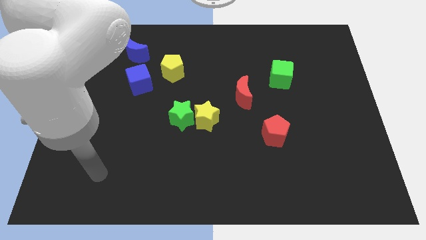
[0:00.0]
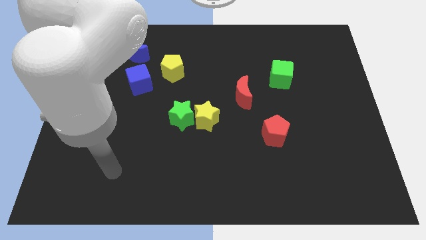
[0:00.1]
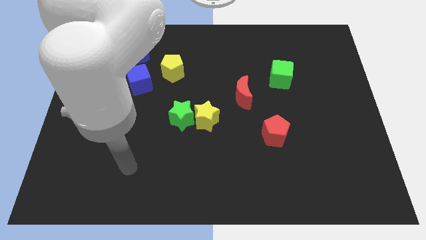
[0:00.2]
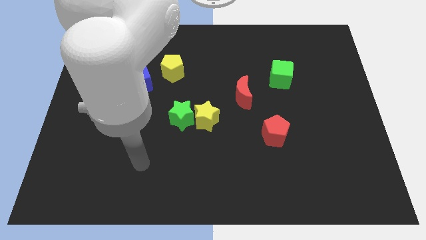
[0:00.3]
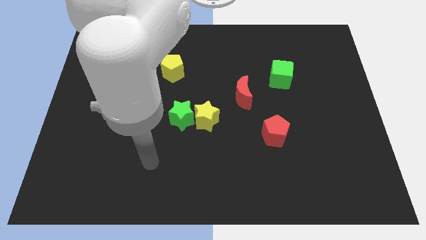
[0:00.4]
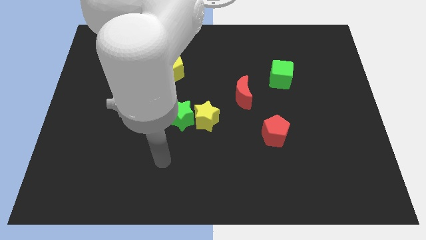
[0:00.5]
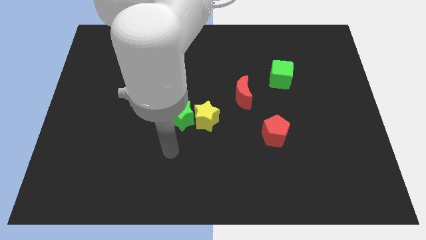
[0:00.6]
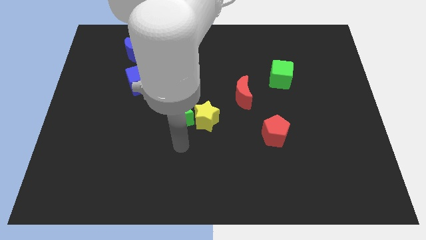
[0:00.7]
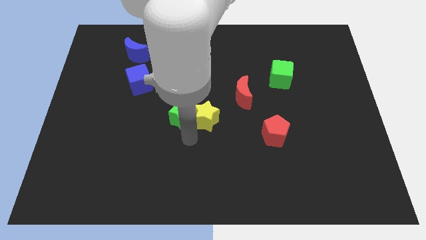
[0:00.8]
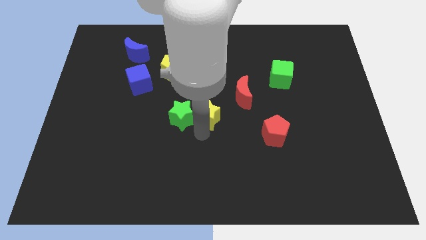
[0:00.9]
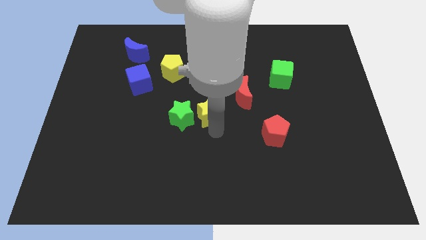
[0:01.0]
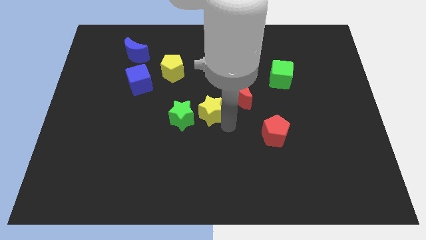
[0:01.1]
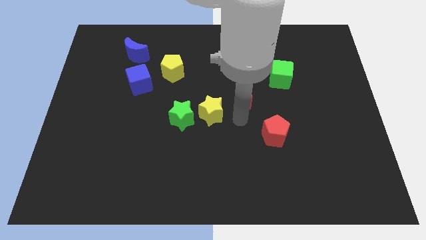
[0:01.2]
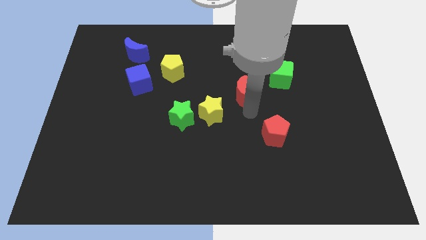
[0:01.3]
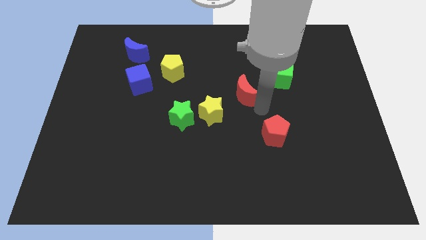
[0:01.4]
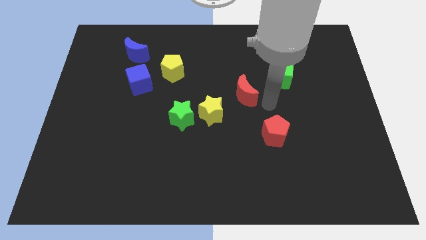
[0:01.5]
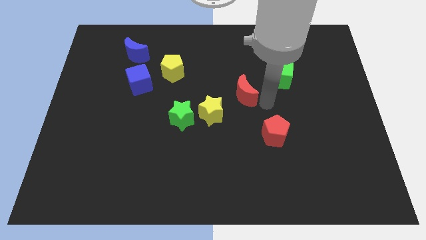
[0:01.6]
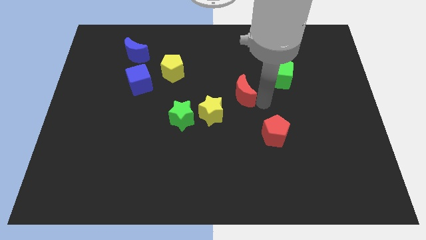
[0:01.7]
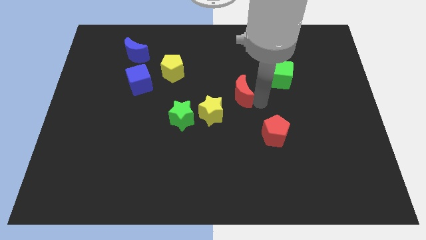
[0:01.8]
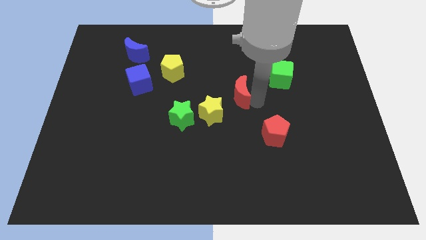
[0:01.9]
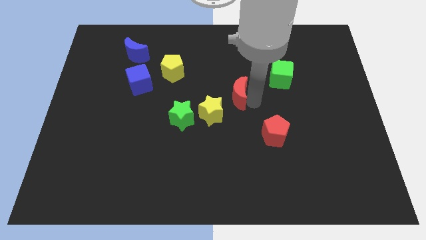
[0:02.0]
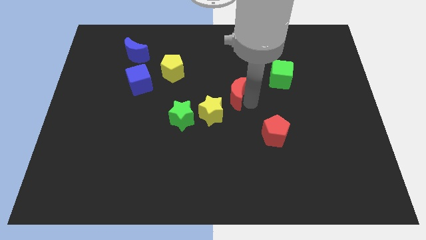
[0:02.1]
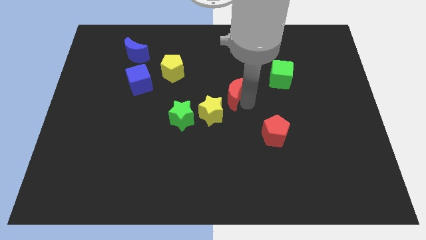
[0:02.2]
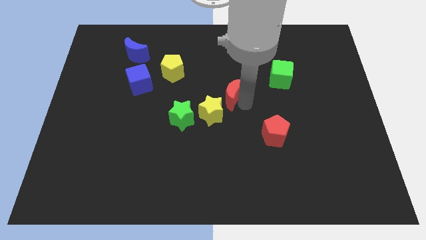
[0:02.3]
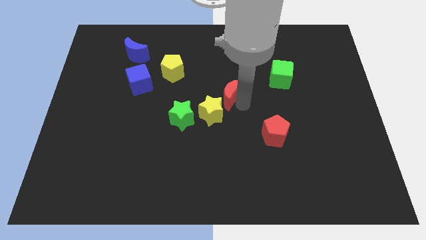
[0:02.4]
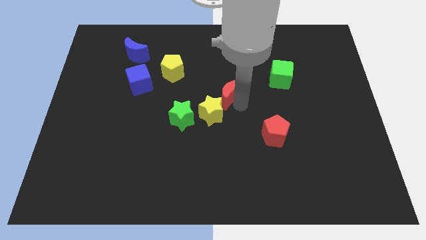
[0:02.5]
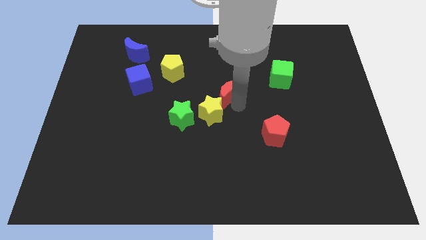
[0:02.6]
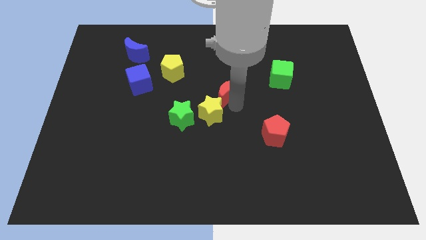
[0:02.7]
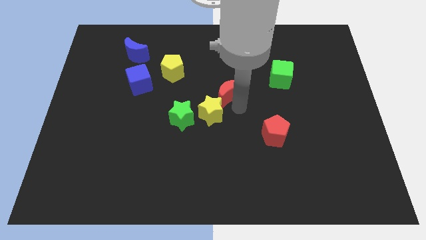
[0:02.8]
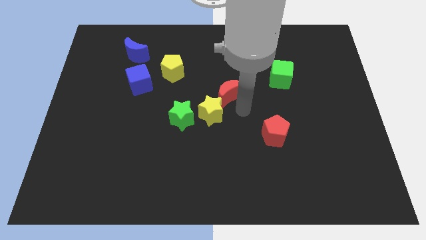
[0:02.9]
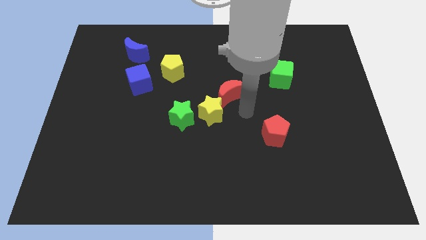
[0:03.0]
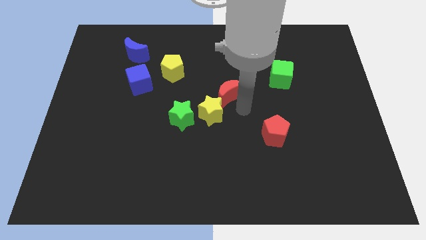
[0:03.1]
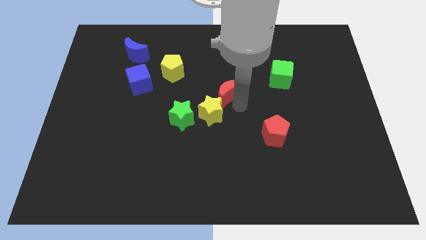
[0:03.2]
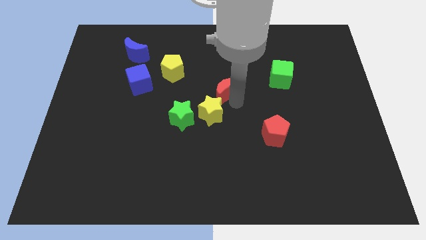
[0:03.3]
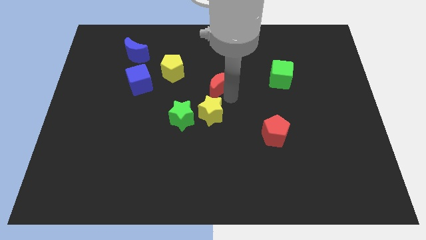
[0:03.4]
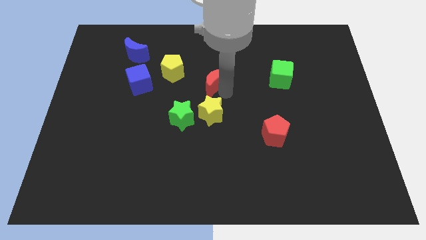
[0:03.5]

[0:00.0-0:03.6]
move the red moon a little bit up and left diagonally

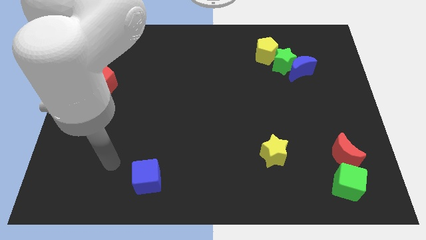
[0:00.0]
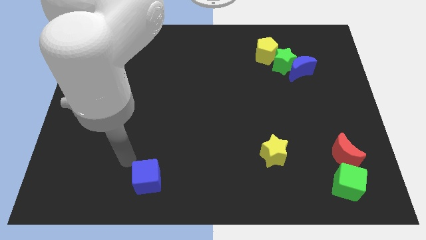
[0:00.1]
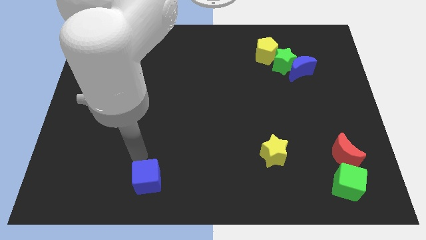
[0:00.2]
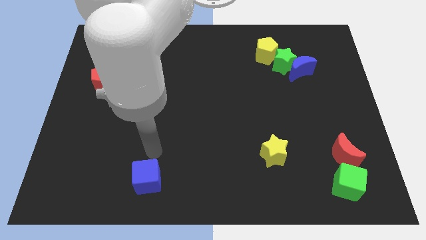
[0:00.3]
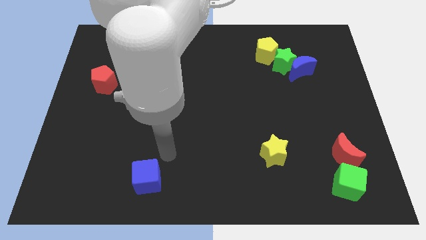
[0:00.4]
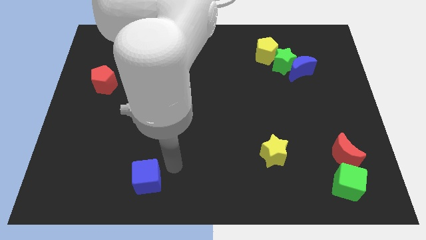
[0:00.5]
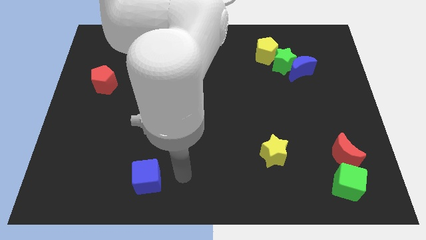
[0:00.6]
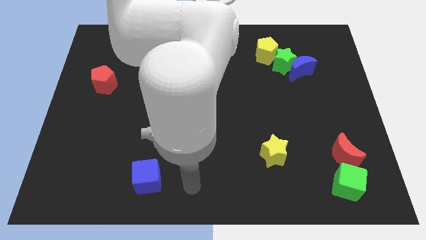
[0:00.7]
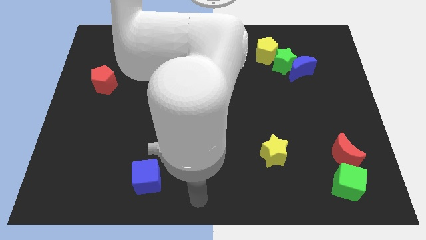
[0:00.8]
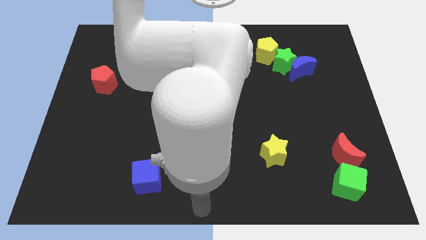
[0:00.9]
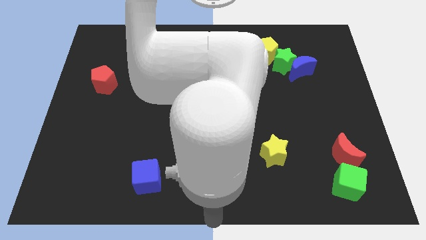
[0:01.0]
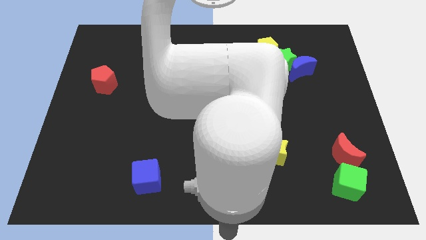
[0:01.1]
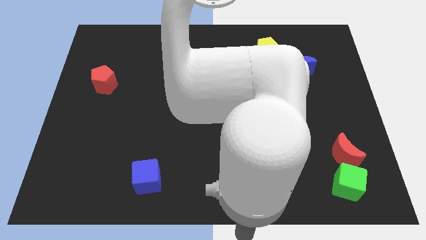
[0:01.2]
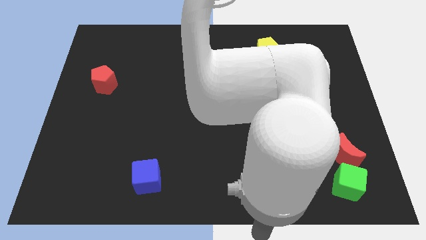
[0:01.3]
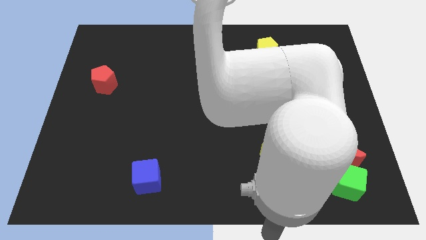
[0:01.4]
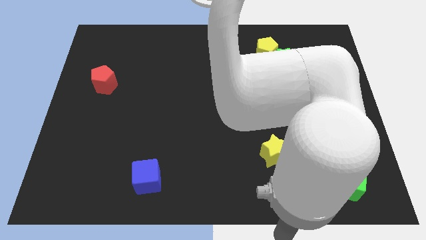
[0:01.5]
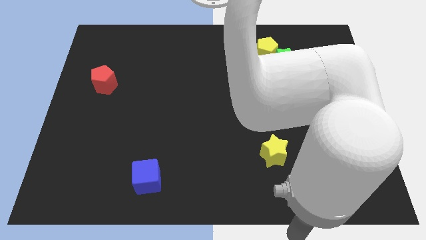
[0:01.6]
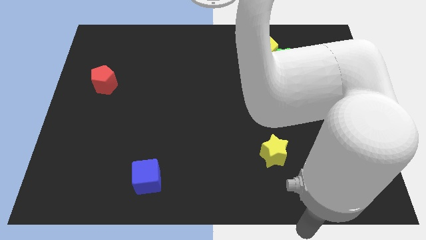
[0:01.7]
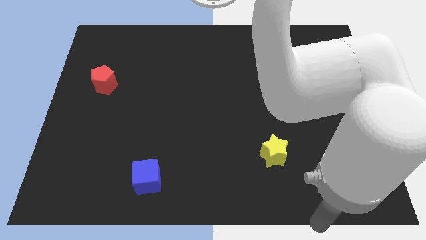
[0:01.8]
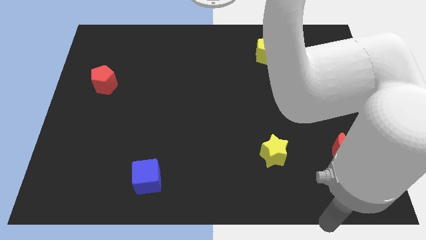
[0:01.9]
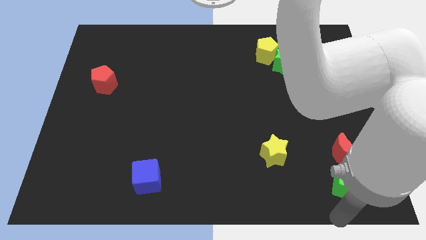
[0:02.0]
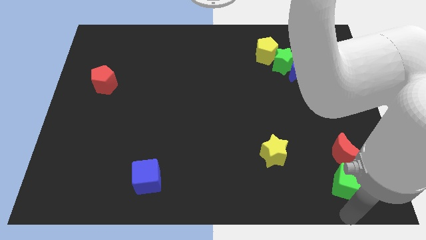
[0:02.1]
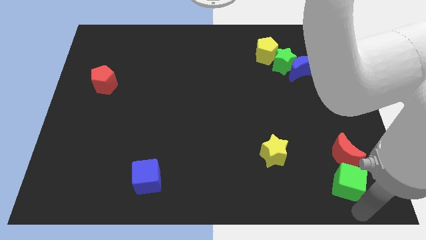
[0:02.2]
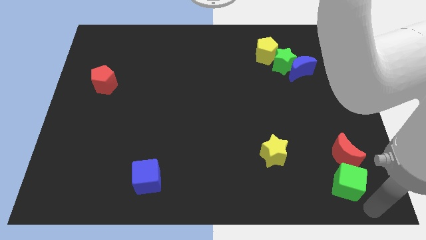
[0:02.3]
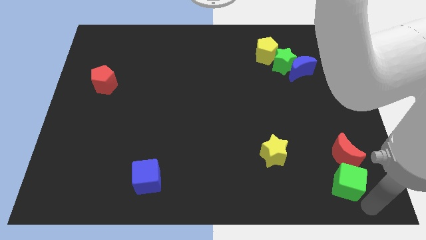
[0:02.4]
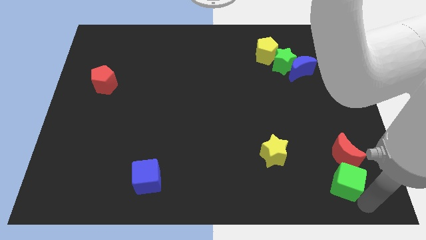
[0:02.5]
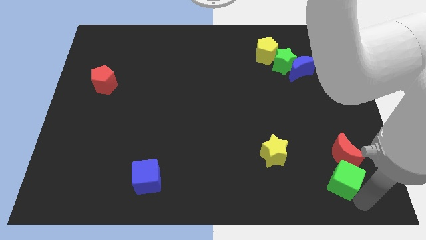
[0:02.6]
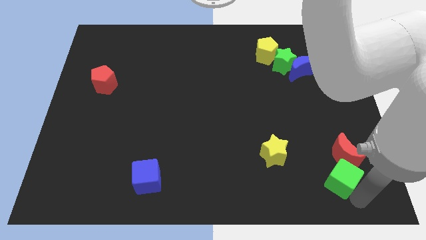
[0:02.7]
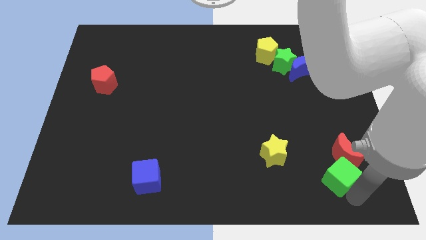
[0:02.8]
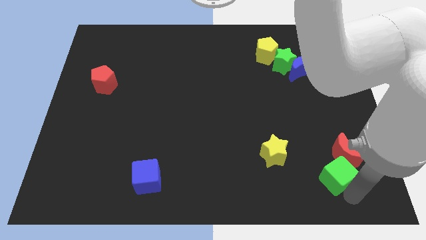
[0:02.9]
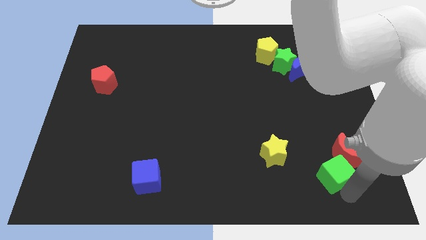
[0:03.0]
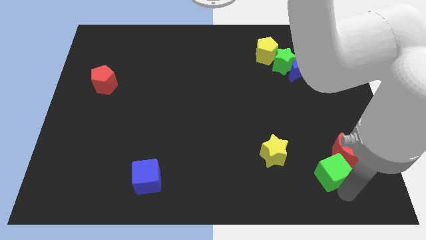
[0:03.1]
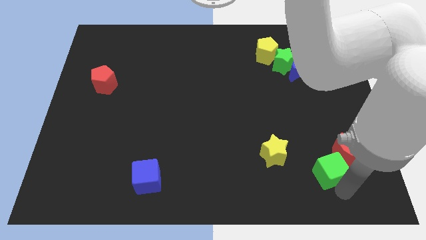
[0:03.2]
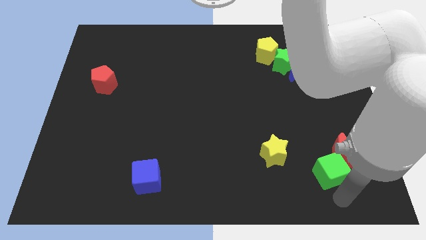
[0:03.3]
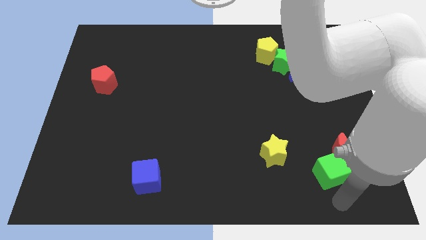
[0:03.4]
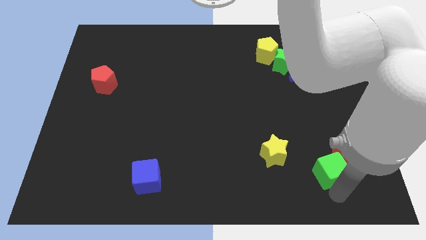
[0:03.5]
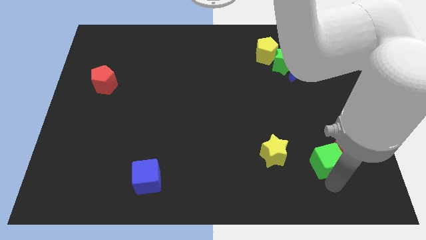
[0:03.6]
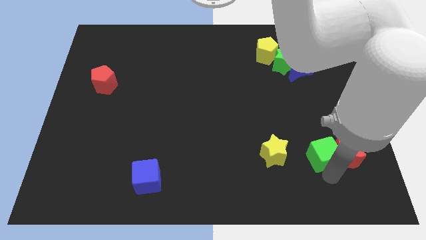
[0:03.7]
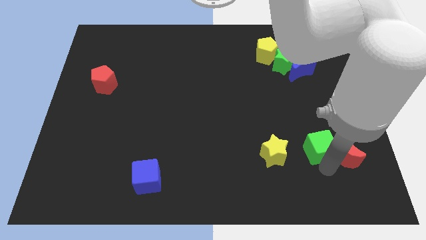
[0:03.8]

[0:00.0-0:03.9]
push the green cube upwards somewhat

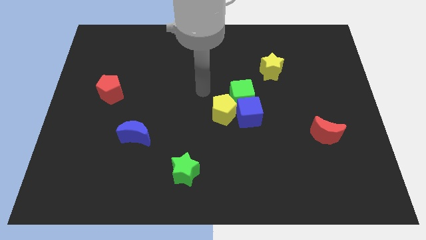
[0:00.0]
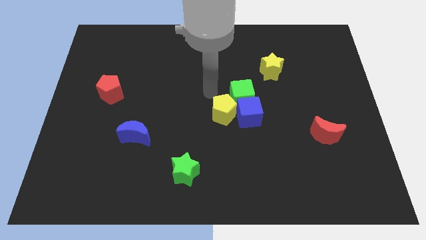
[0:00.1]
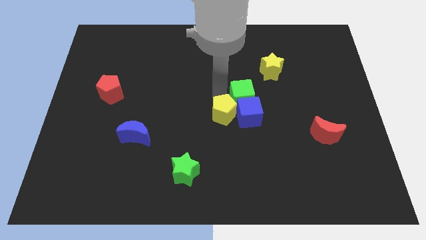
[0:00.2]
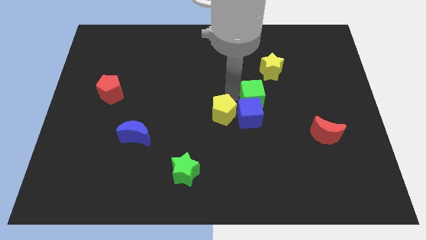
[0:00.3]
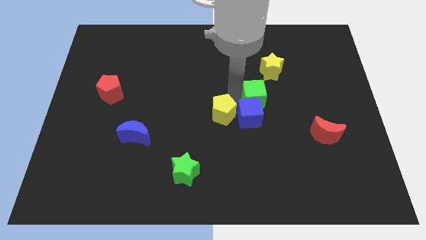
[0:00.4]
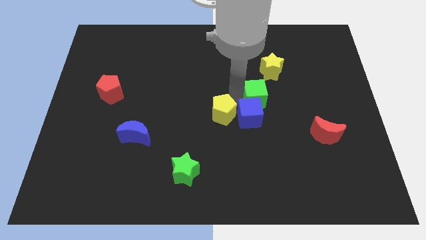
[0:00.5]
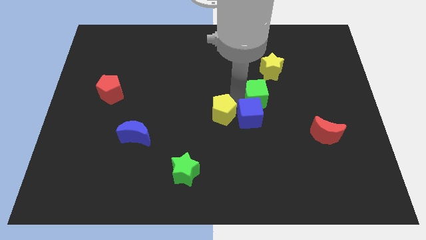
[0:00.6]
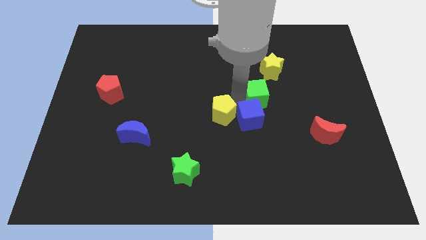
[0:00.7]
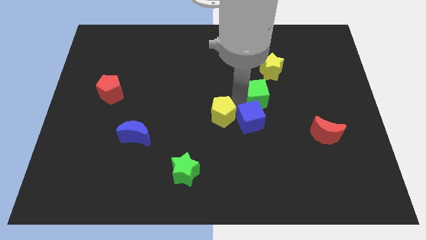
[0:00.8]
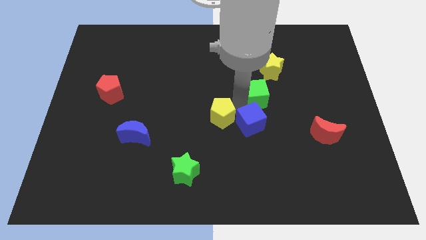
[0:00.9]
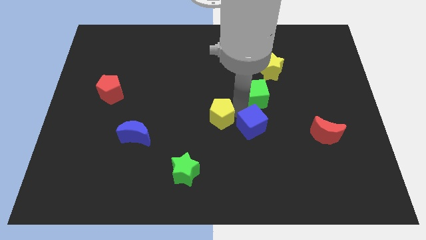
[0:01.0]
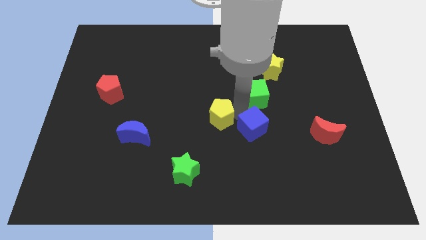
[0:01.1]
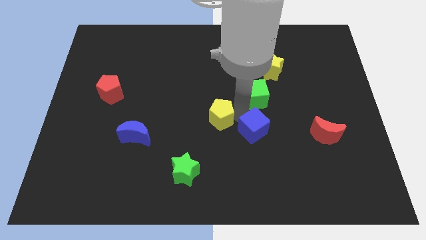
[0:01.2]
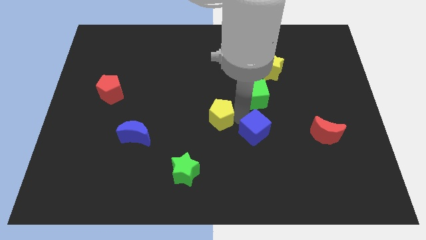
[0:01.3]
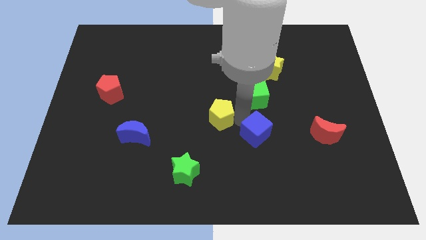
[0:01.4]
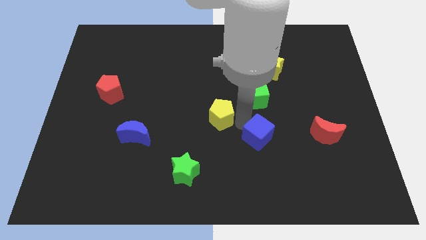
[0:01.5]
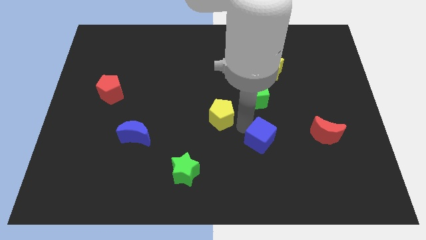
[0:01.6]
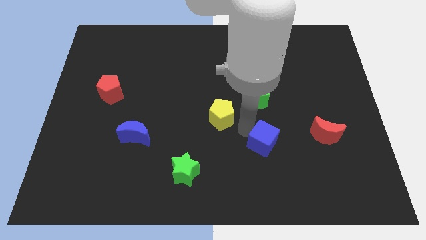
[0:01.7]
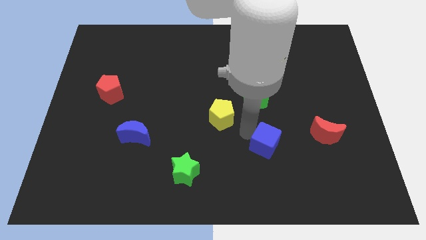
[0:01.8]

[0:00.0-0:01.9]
slightly slide the blue cube down and then to the right
